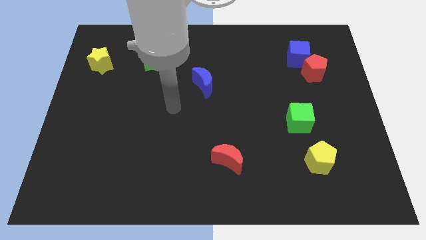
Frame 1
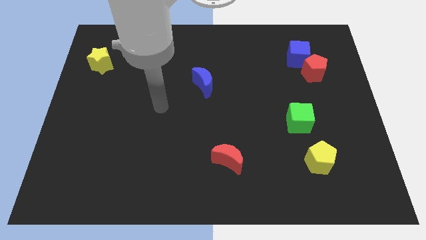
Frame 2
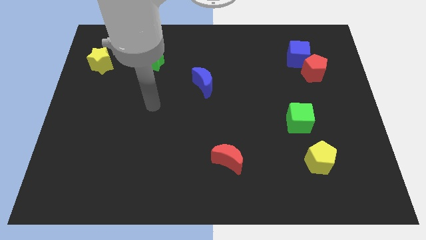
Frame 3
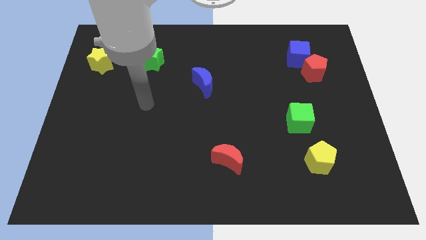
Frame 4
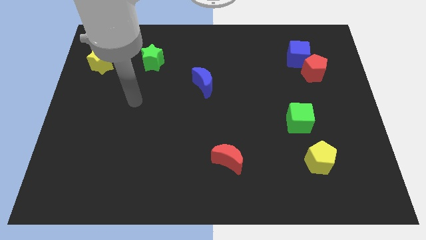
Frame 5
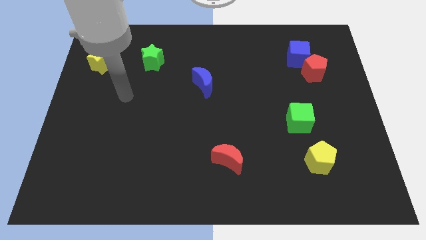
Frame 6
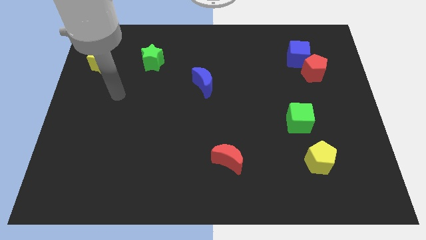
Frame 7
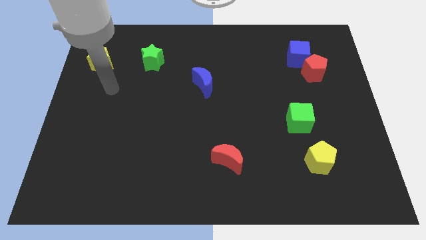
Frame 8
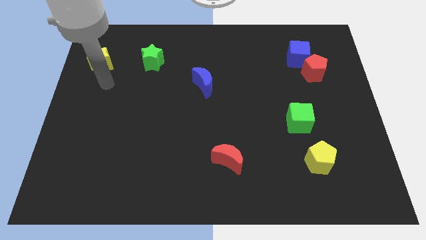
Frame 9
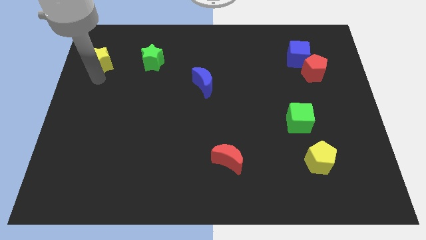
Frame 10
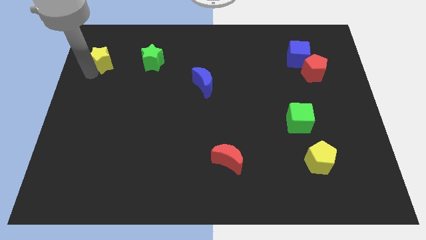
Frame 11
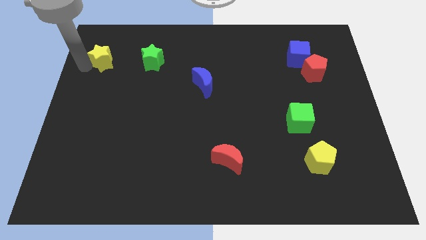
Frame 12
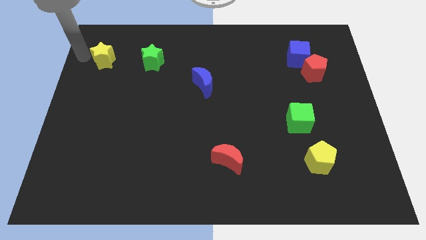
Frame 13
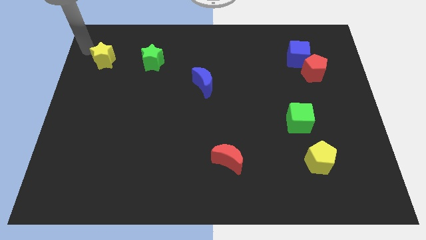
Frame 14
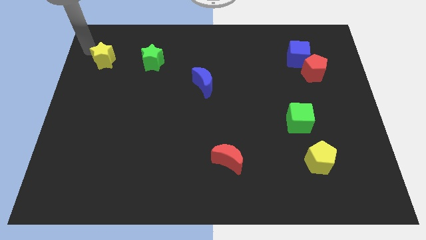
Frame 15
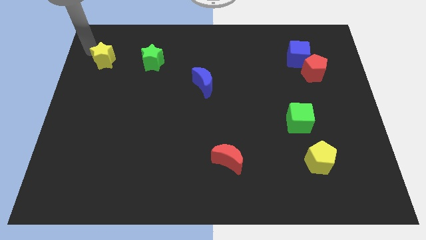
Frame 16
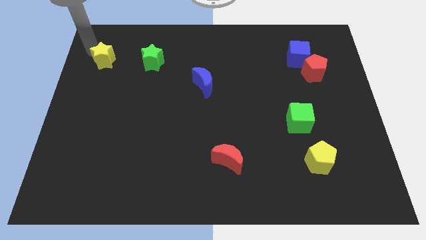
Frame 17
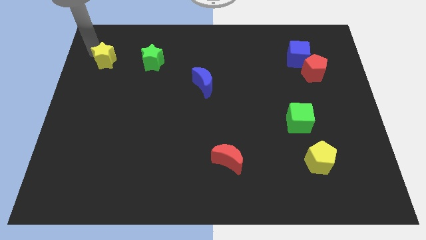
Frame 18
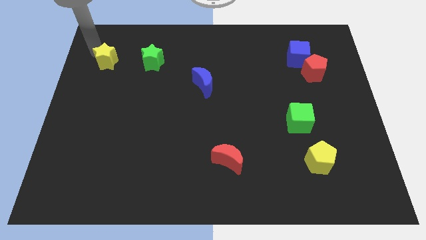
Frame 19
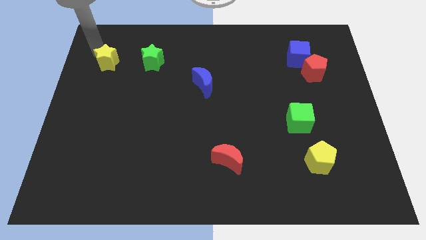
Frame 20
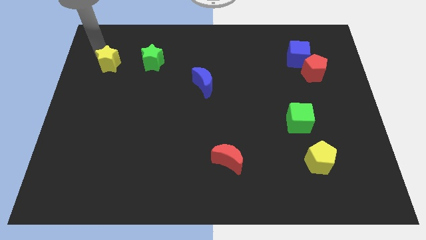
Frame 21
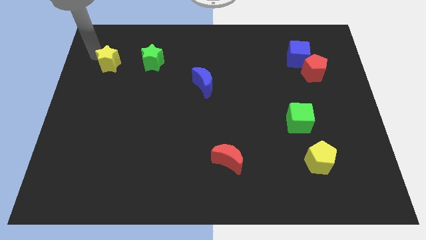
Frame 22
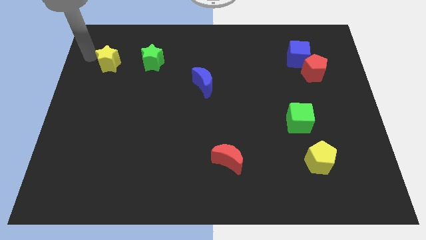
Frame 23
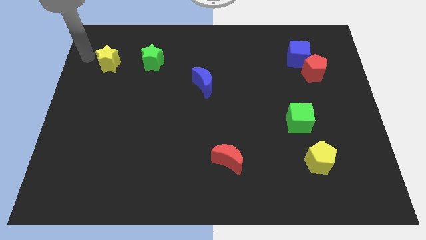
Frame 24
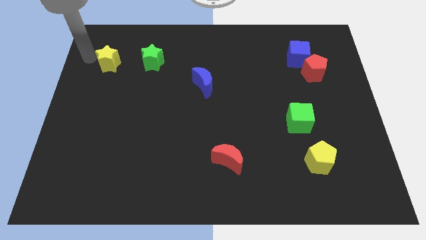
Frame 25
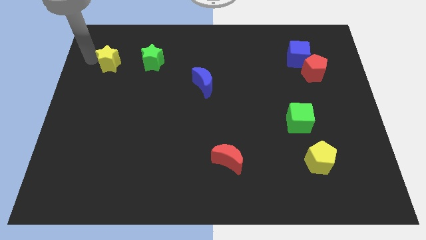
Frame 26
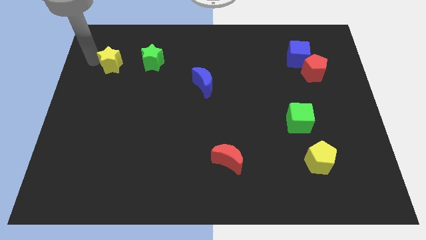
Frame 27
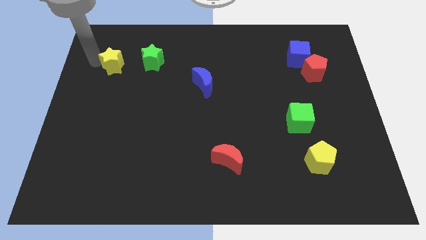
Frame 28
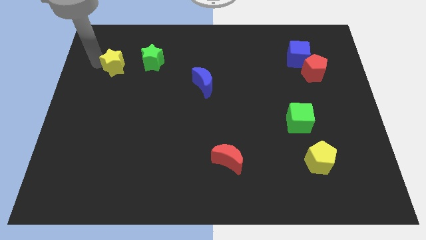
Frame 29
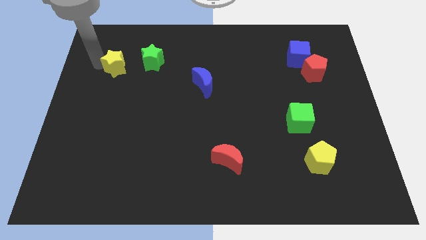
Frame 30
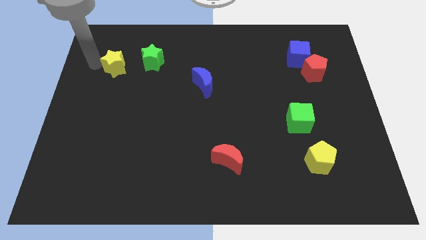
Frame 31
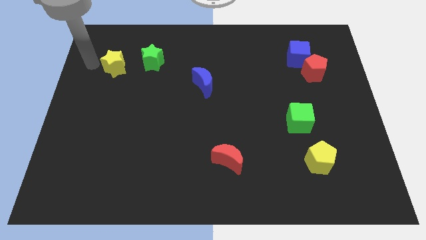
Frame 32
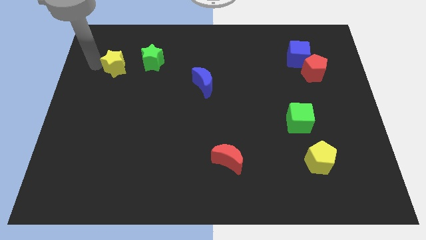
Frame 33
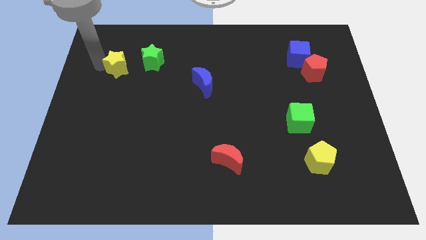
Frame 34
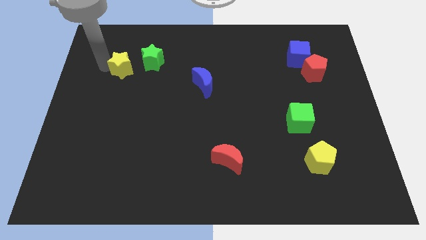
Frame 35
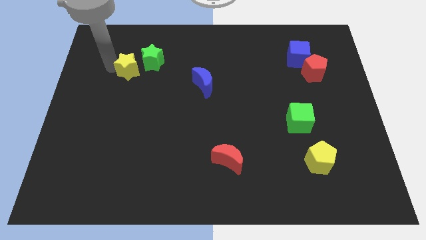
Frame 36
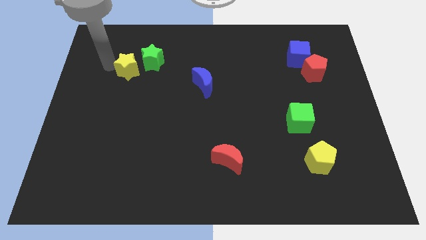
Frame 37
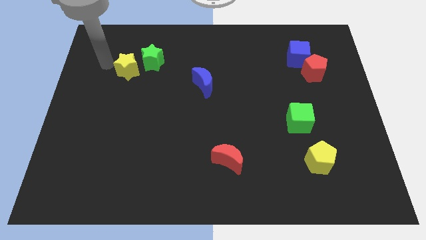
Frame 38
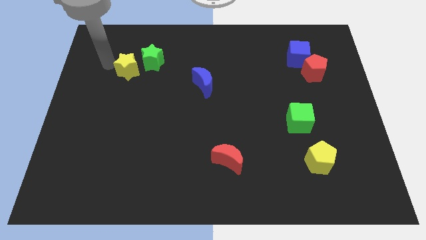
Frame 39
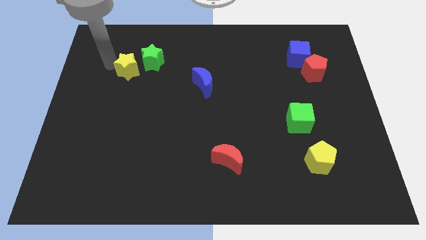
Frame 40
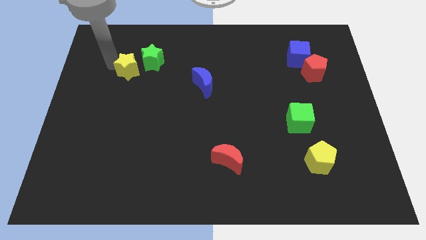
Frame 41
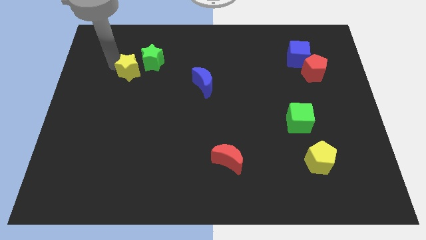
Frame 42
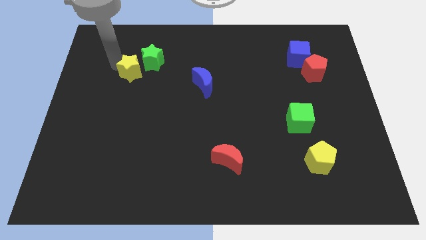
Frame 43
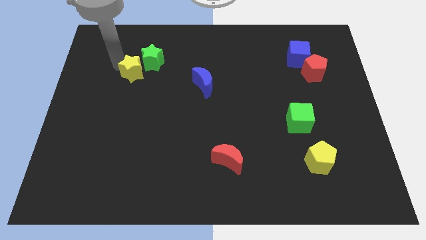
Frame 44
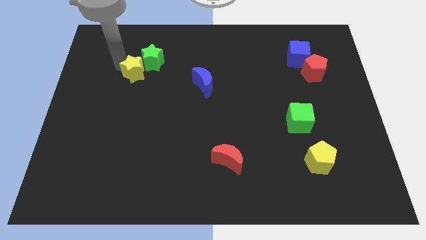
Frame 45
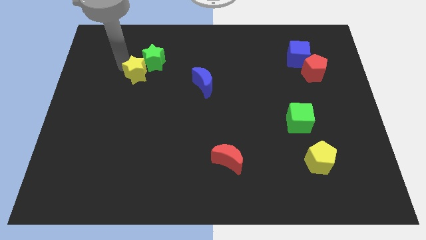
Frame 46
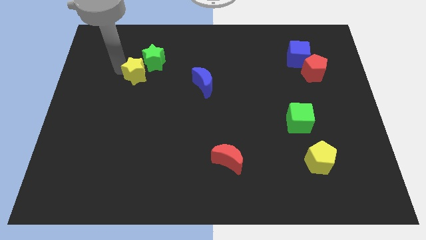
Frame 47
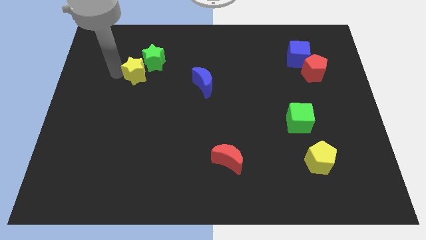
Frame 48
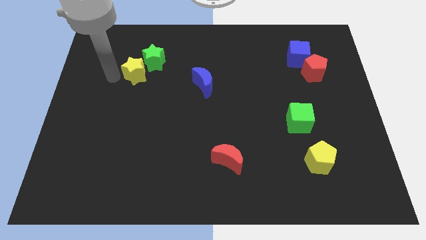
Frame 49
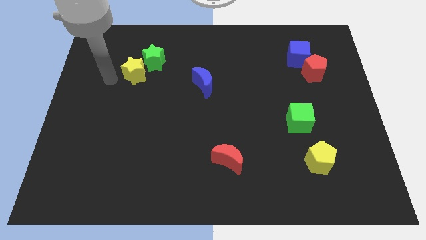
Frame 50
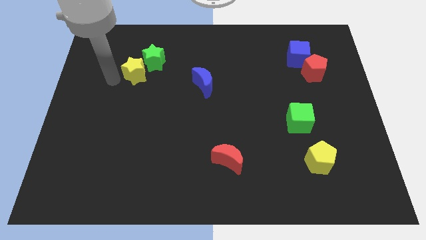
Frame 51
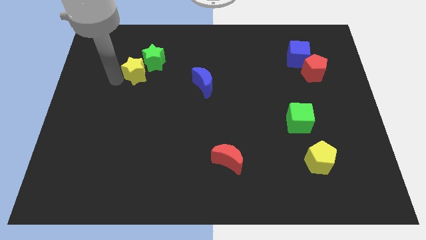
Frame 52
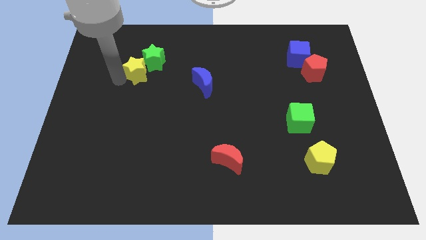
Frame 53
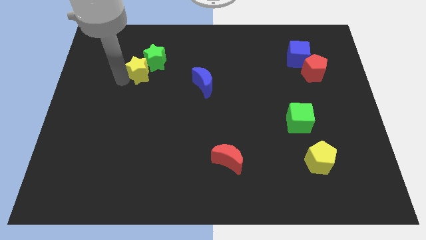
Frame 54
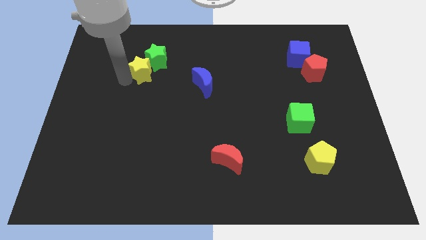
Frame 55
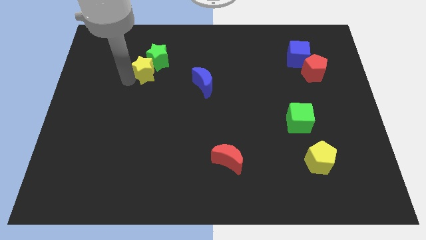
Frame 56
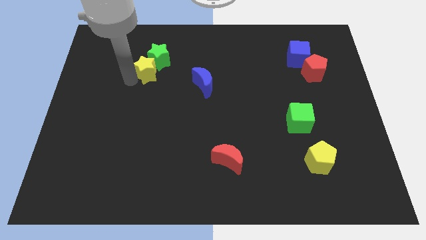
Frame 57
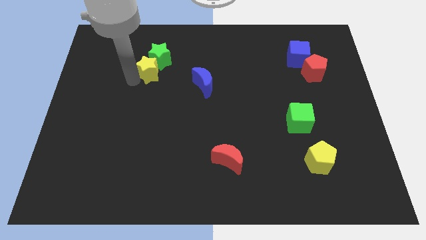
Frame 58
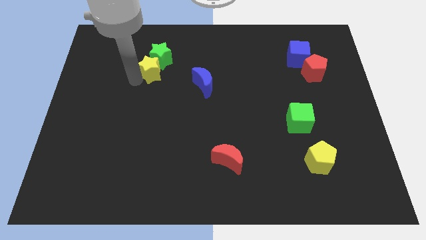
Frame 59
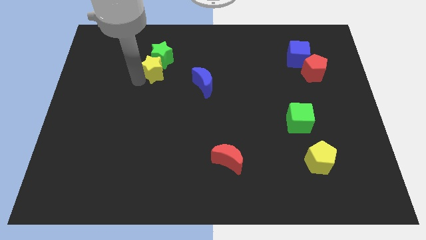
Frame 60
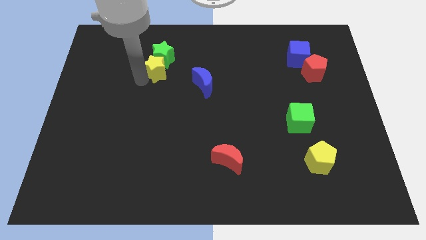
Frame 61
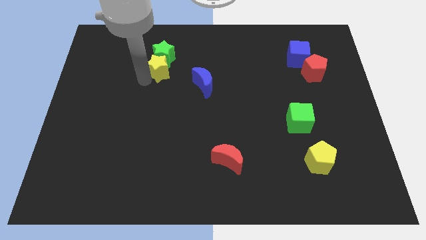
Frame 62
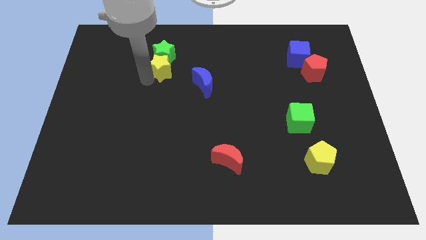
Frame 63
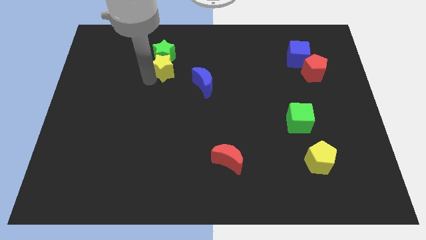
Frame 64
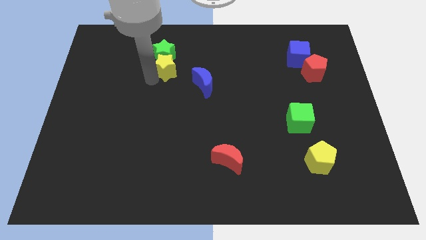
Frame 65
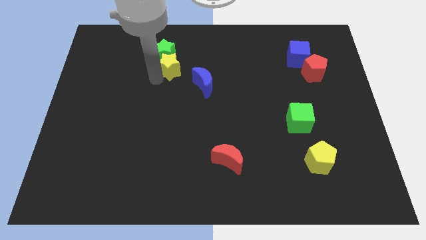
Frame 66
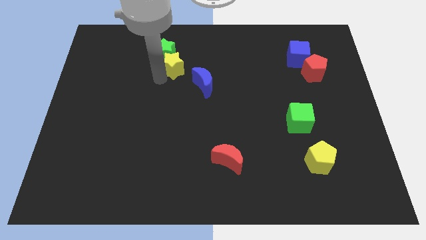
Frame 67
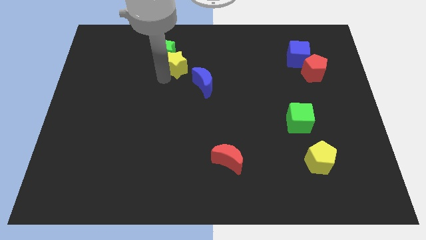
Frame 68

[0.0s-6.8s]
put the yellow star to the right side of the green star

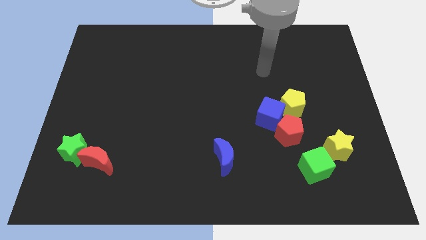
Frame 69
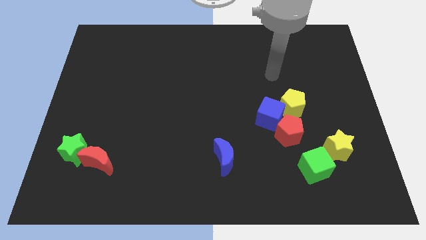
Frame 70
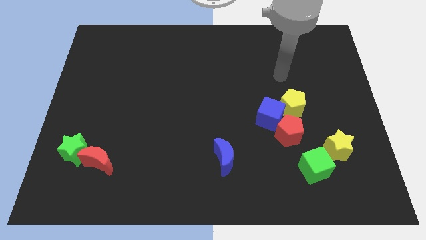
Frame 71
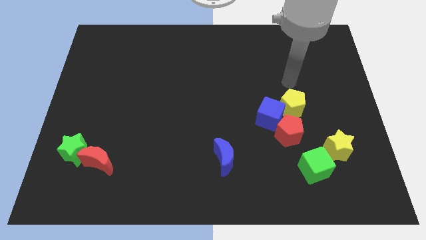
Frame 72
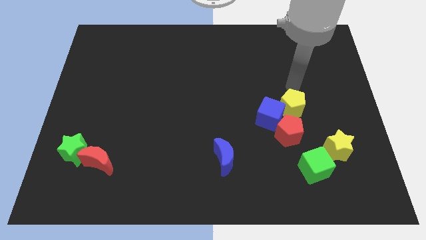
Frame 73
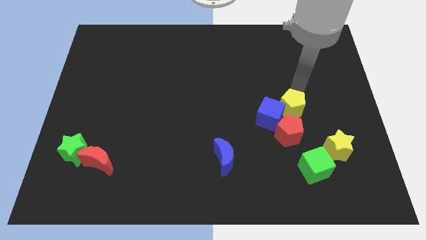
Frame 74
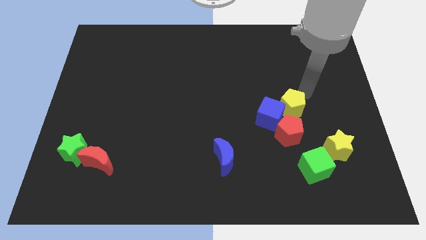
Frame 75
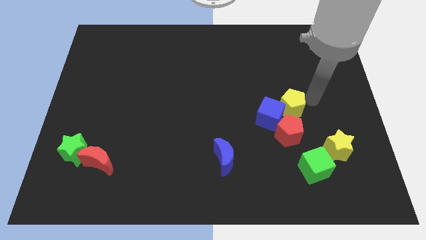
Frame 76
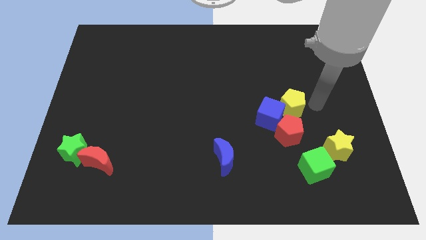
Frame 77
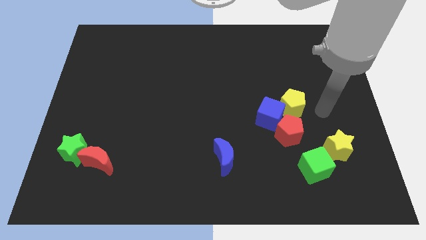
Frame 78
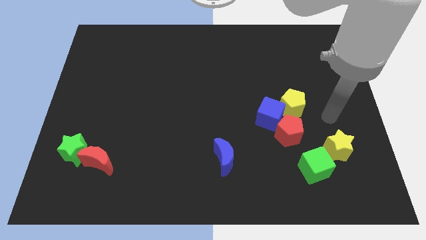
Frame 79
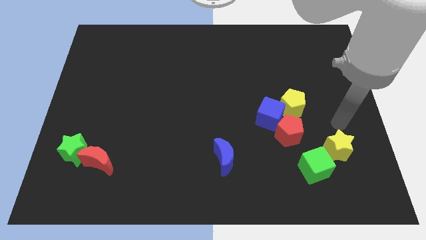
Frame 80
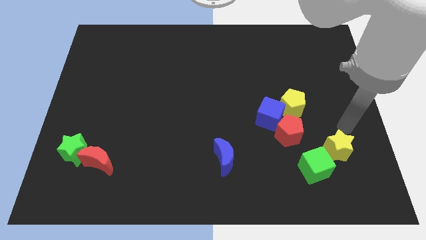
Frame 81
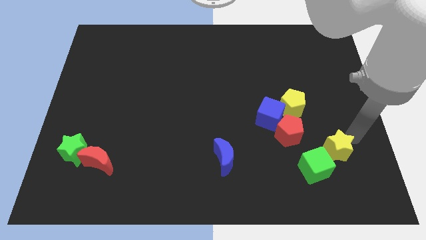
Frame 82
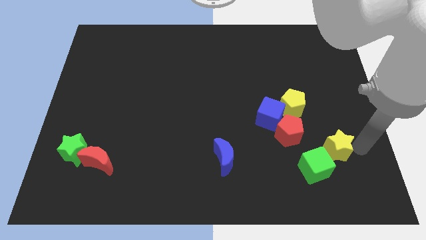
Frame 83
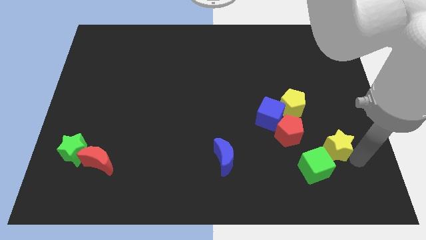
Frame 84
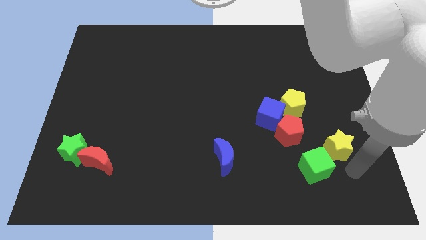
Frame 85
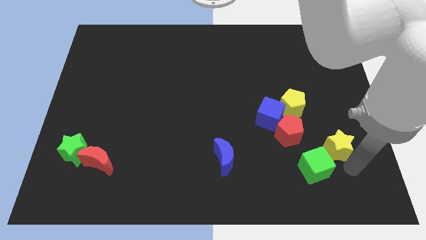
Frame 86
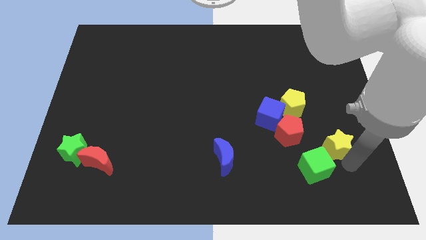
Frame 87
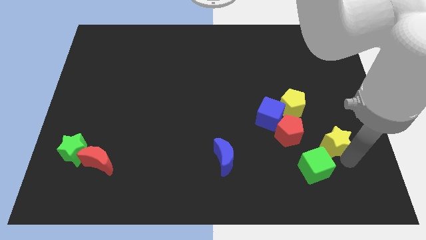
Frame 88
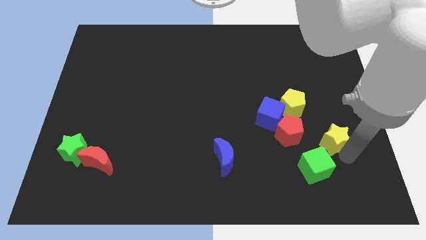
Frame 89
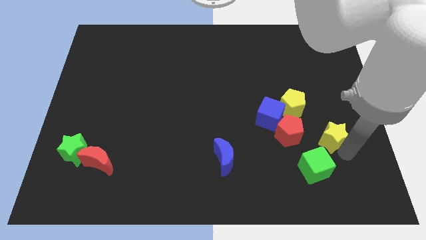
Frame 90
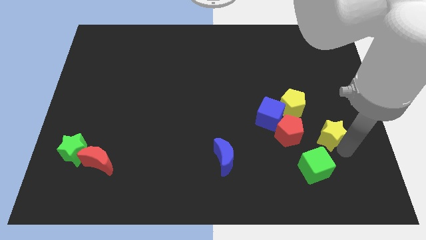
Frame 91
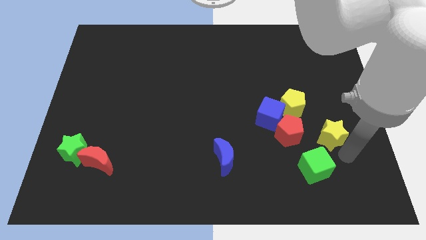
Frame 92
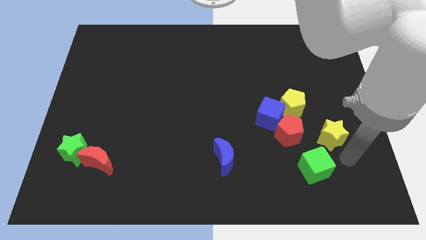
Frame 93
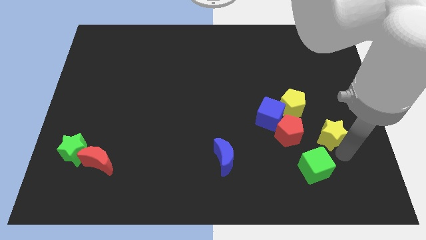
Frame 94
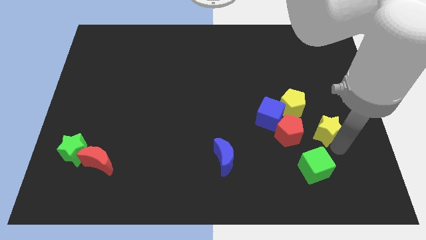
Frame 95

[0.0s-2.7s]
move the yellow star just right of the blue cube
